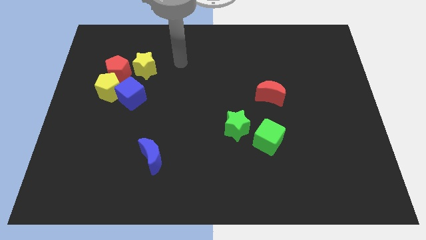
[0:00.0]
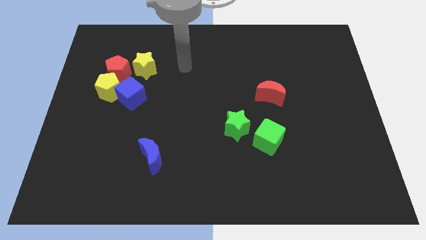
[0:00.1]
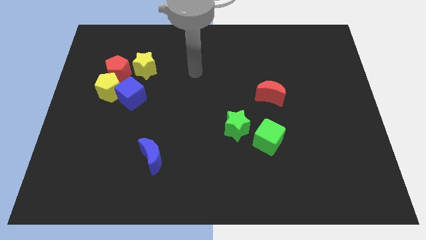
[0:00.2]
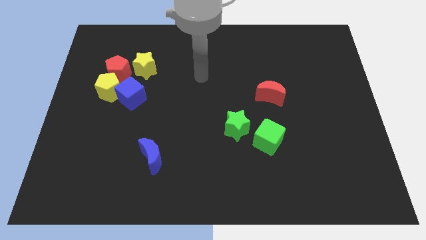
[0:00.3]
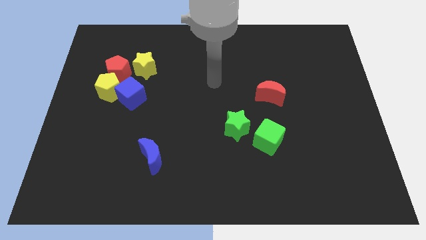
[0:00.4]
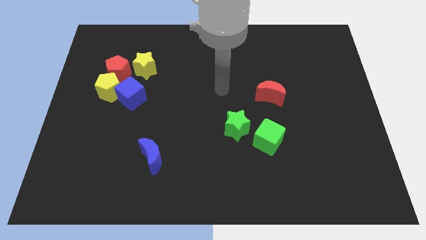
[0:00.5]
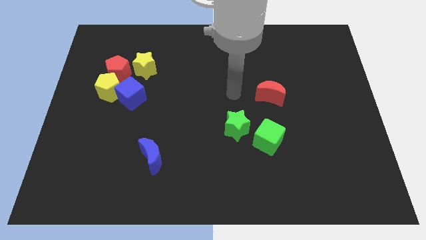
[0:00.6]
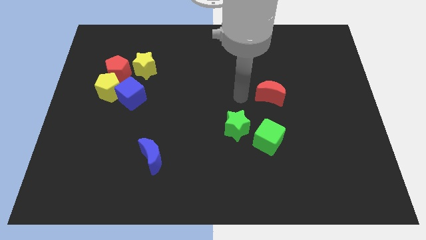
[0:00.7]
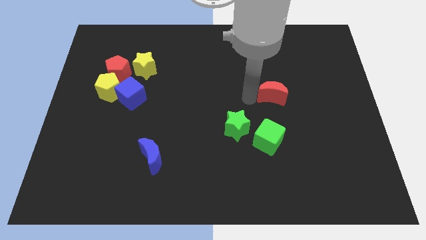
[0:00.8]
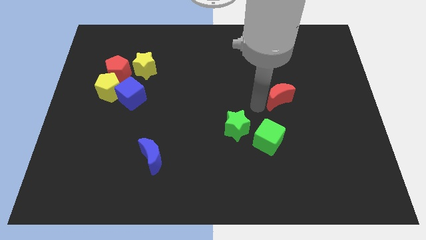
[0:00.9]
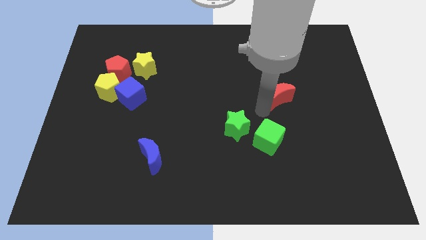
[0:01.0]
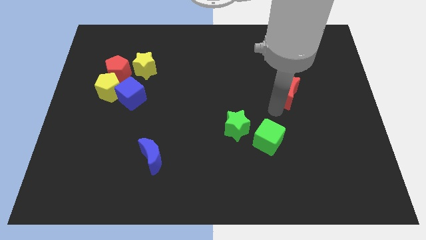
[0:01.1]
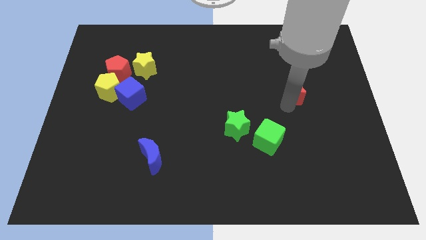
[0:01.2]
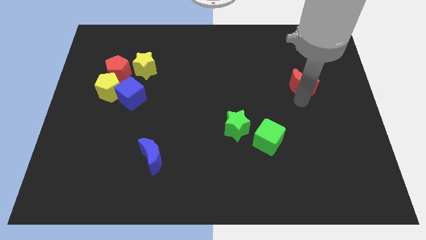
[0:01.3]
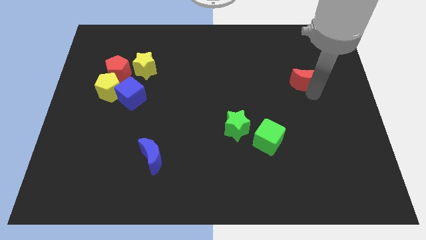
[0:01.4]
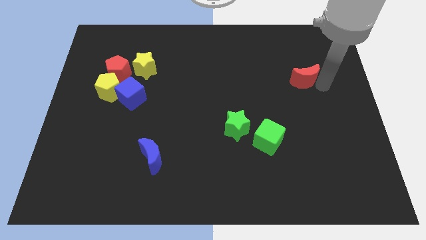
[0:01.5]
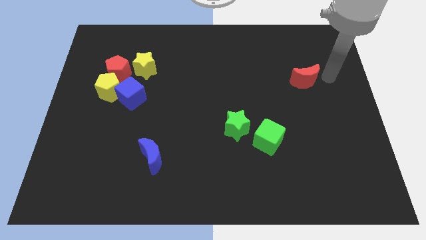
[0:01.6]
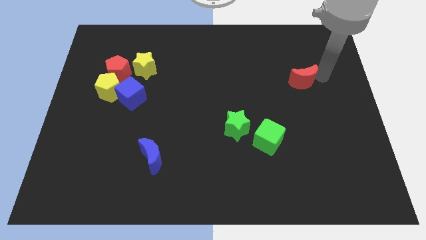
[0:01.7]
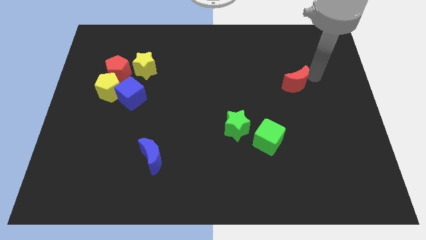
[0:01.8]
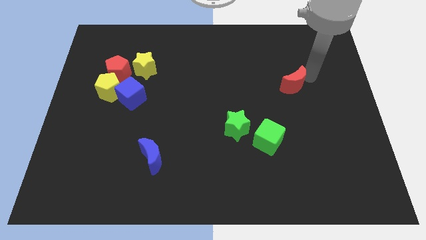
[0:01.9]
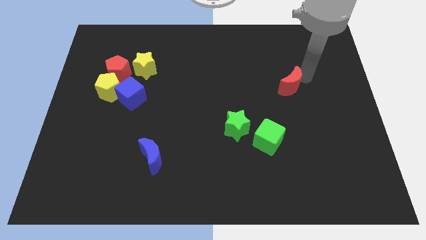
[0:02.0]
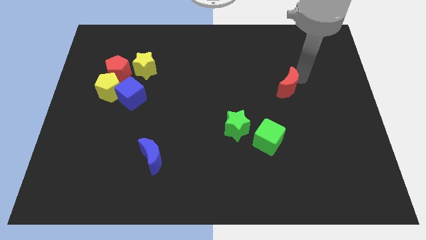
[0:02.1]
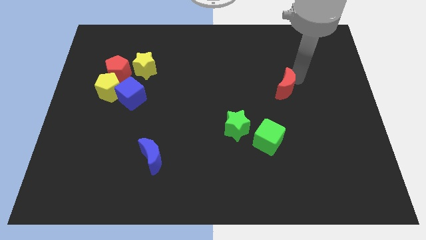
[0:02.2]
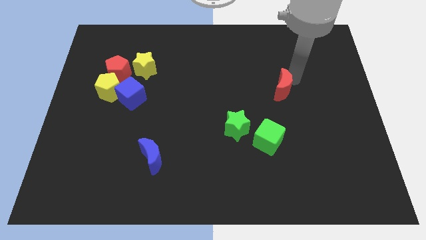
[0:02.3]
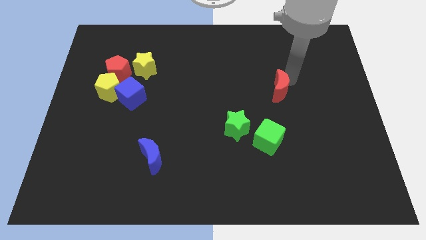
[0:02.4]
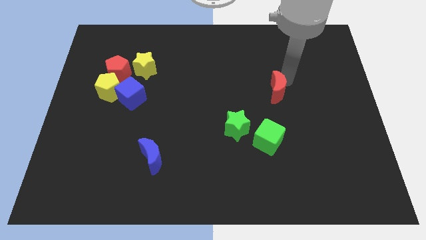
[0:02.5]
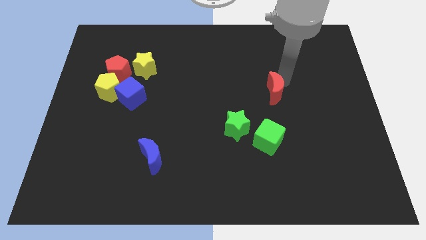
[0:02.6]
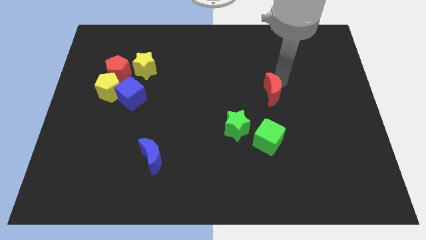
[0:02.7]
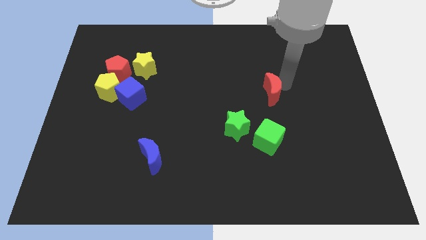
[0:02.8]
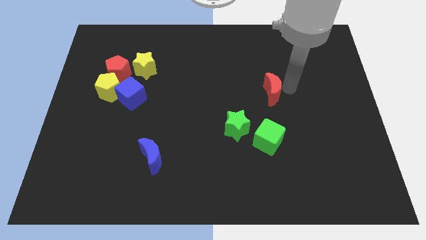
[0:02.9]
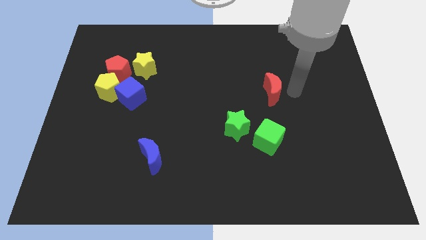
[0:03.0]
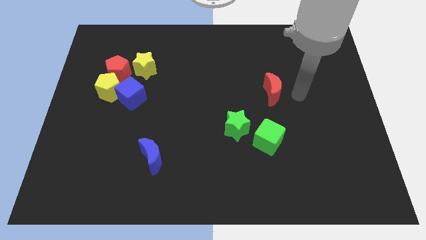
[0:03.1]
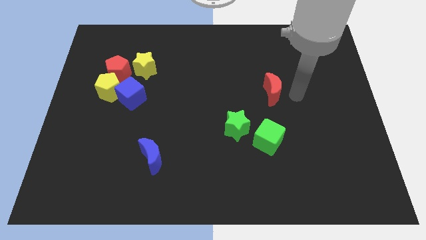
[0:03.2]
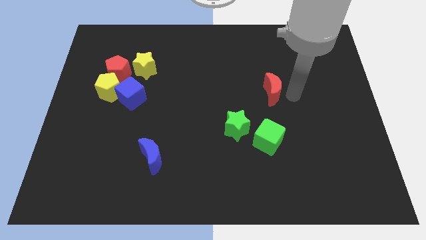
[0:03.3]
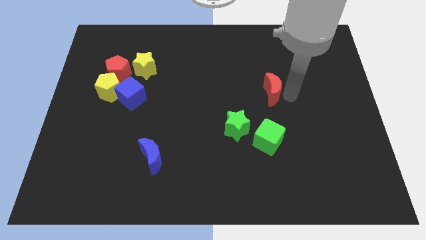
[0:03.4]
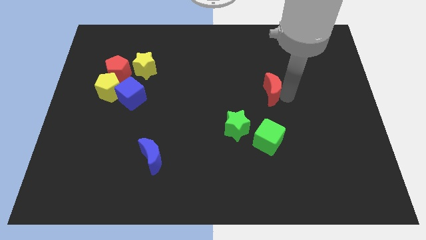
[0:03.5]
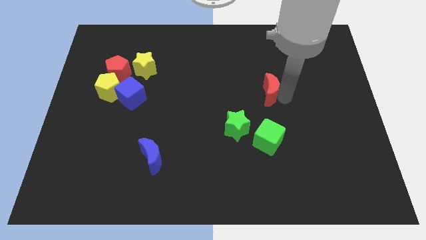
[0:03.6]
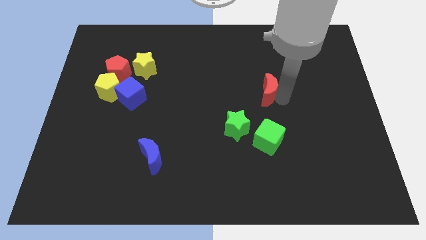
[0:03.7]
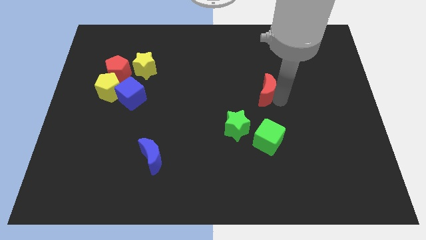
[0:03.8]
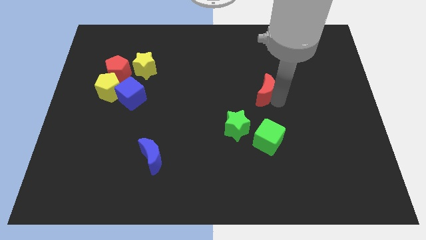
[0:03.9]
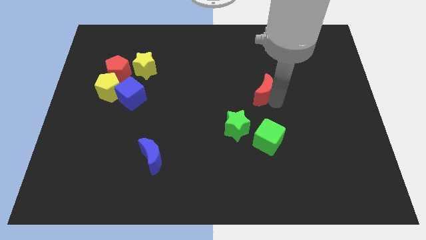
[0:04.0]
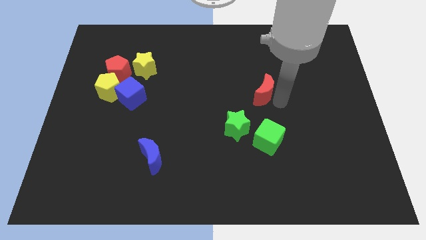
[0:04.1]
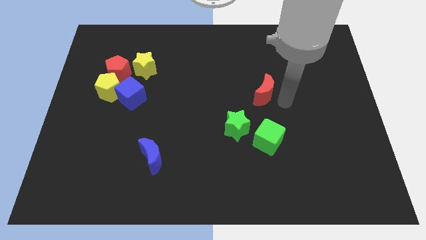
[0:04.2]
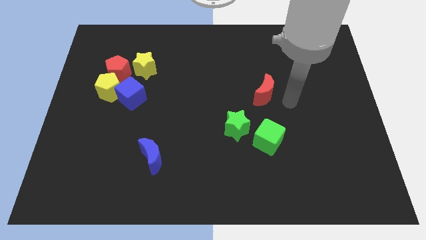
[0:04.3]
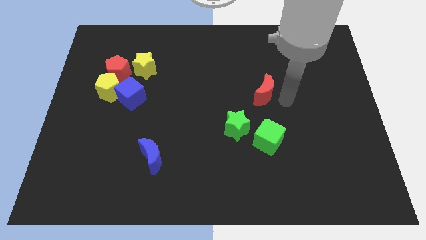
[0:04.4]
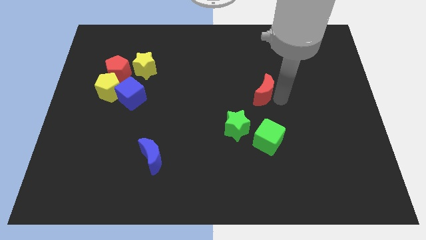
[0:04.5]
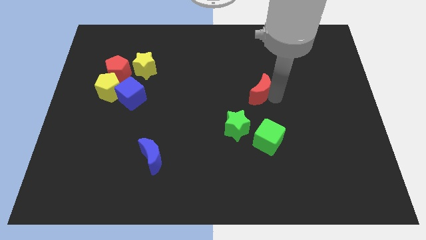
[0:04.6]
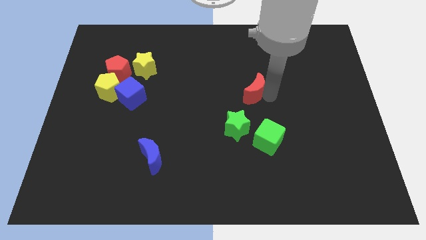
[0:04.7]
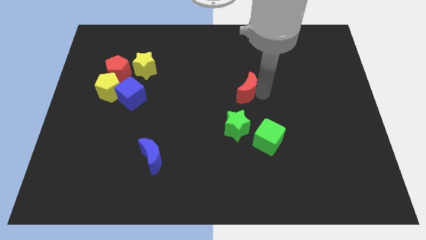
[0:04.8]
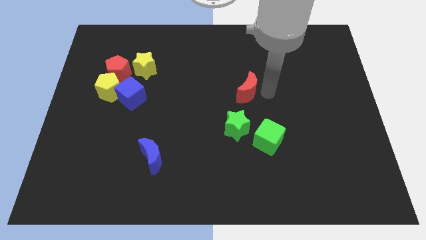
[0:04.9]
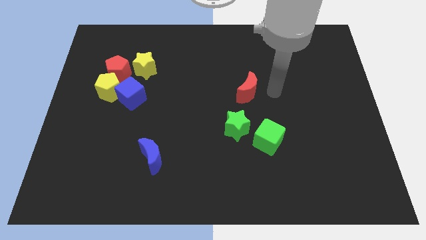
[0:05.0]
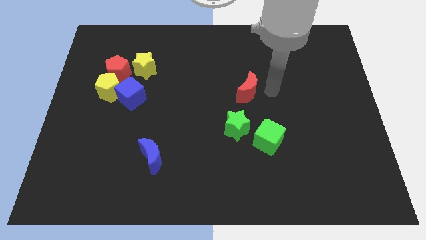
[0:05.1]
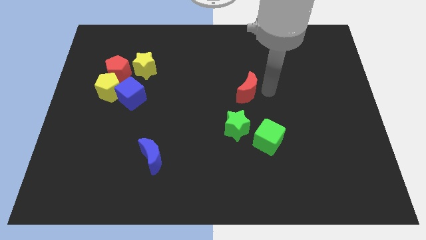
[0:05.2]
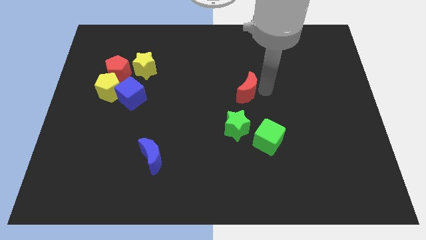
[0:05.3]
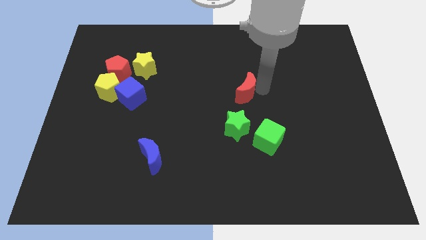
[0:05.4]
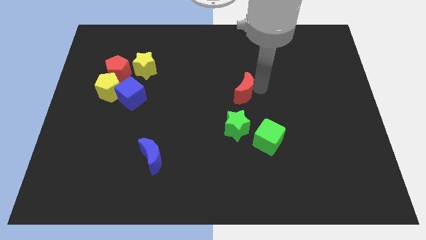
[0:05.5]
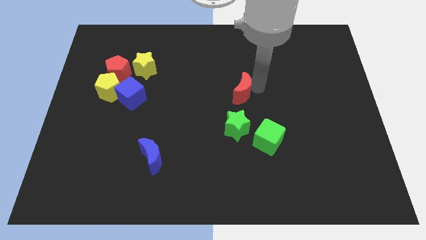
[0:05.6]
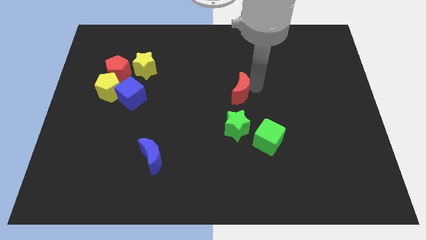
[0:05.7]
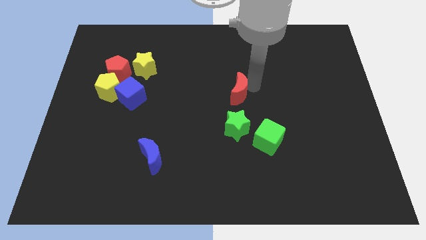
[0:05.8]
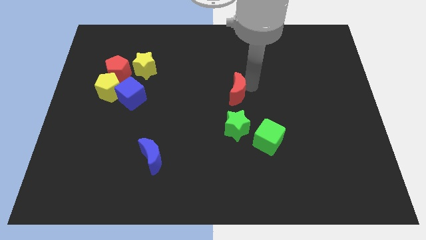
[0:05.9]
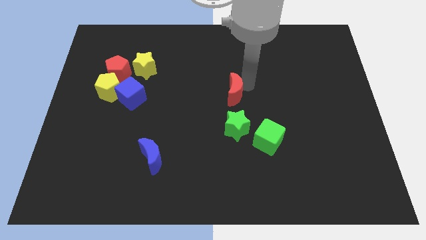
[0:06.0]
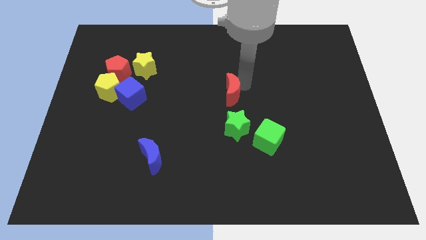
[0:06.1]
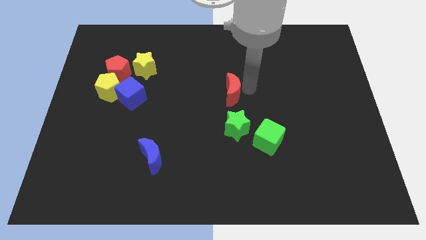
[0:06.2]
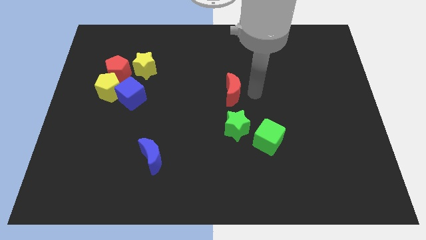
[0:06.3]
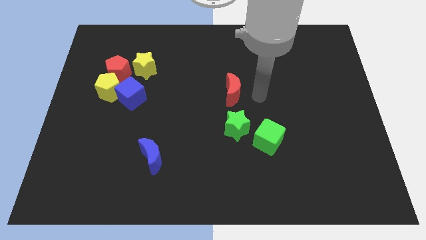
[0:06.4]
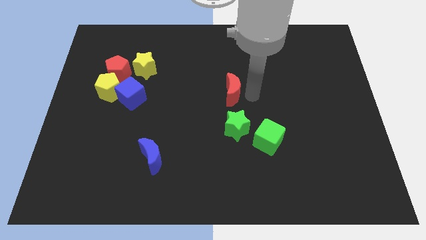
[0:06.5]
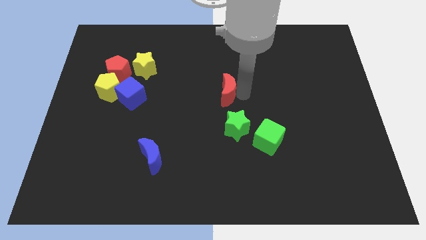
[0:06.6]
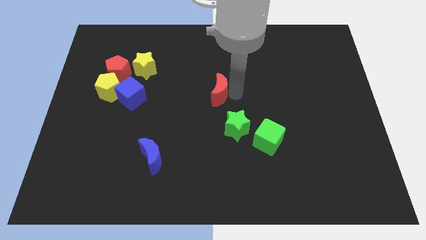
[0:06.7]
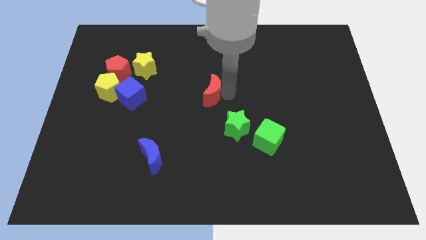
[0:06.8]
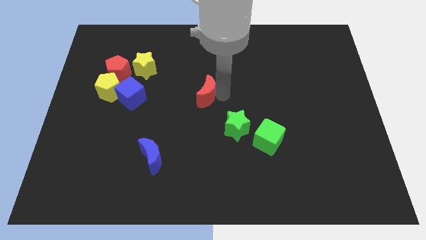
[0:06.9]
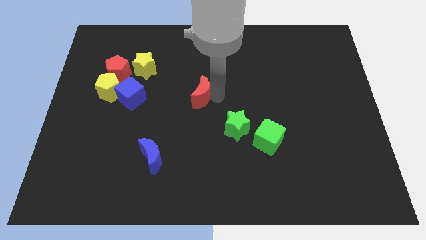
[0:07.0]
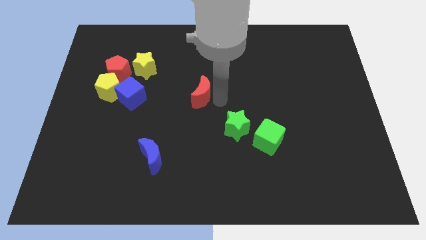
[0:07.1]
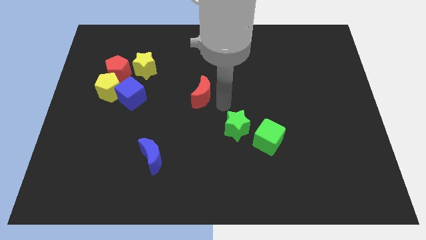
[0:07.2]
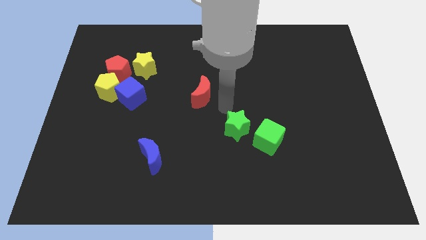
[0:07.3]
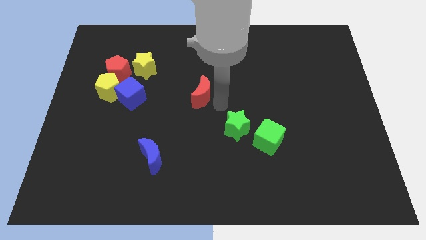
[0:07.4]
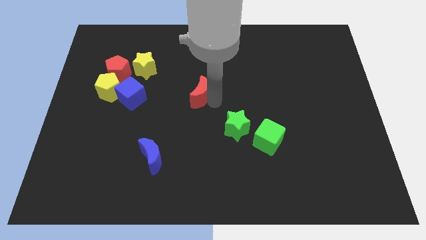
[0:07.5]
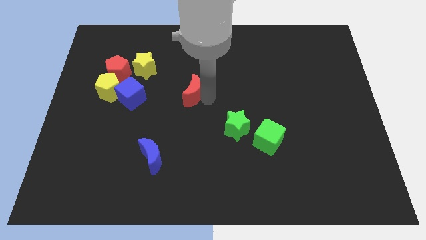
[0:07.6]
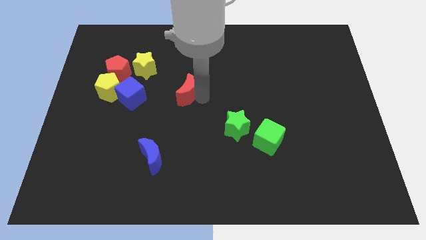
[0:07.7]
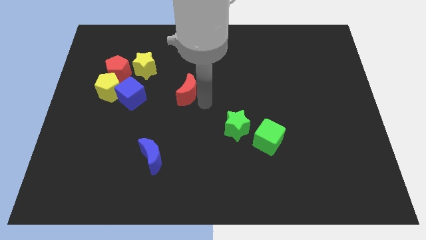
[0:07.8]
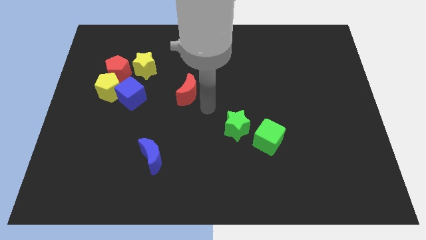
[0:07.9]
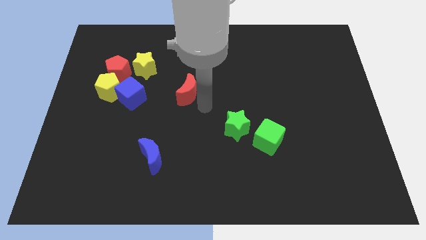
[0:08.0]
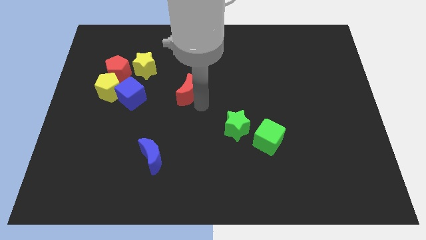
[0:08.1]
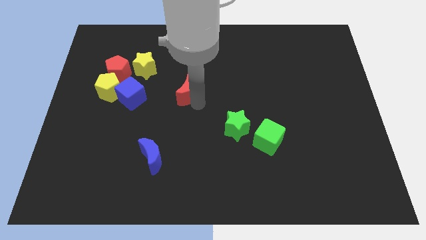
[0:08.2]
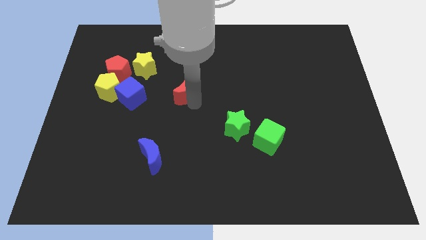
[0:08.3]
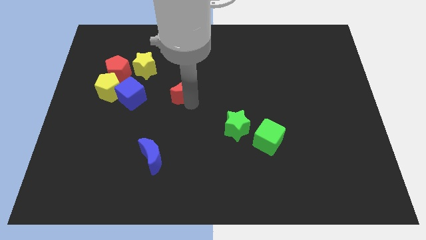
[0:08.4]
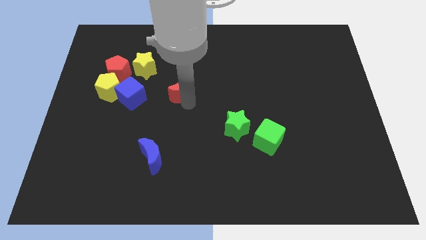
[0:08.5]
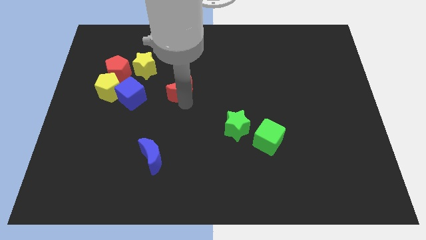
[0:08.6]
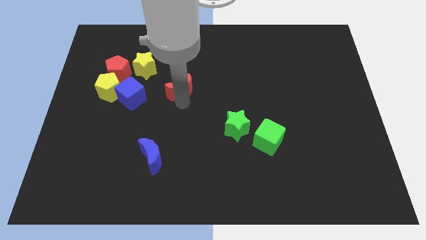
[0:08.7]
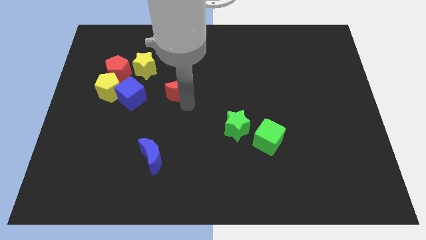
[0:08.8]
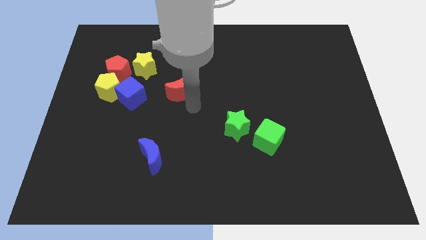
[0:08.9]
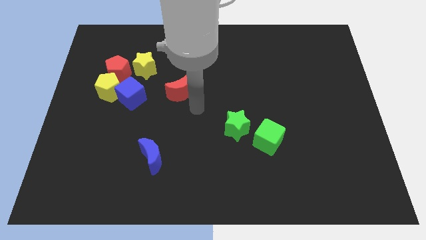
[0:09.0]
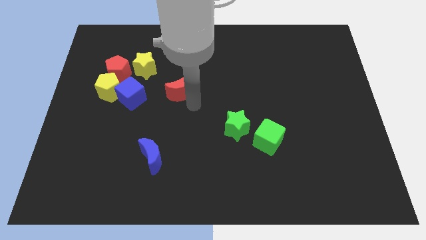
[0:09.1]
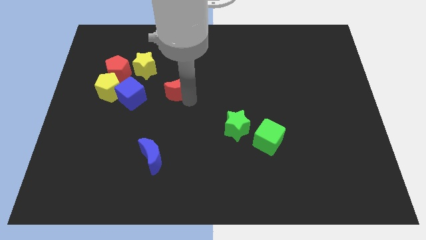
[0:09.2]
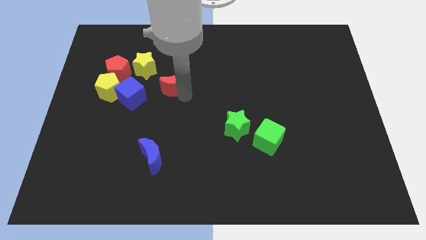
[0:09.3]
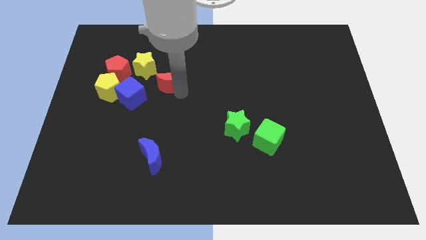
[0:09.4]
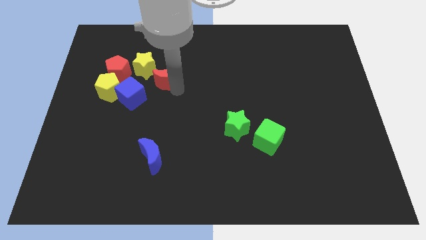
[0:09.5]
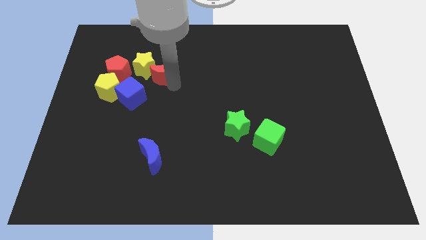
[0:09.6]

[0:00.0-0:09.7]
slide the red moon next to the yellow star
